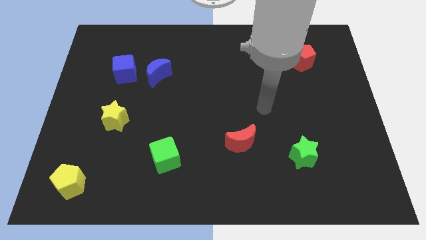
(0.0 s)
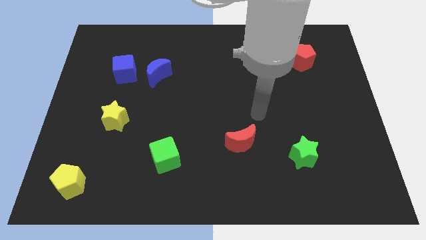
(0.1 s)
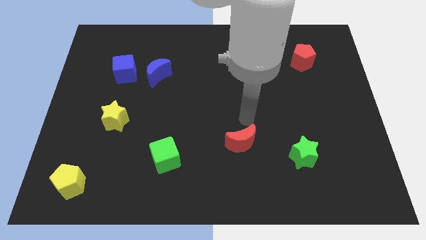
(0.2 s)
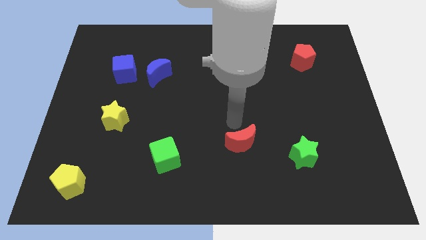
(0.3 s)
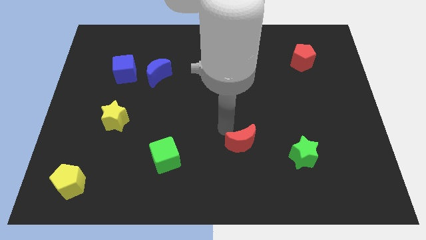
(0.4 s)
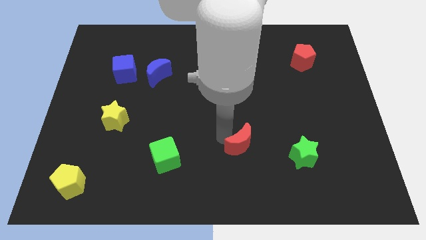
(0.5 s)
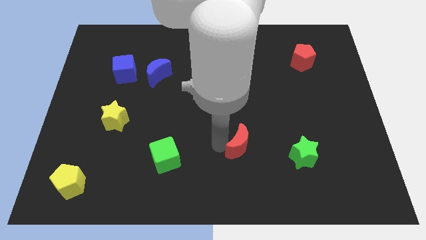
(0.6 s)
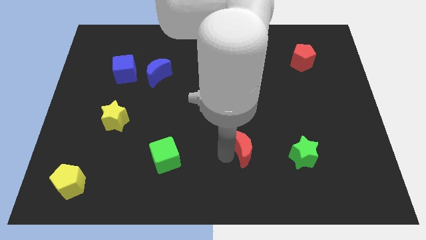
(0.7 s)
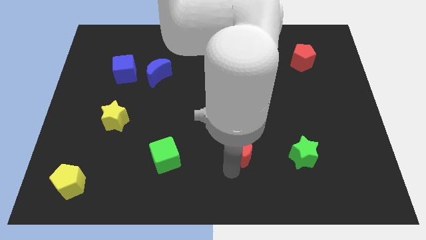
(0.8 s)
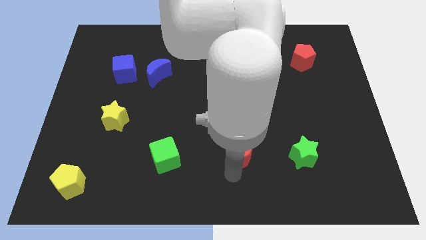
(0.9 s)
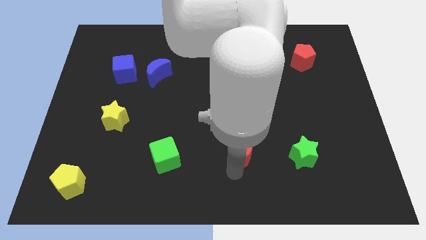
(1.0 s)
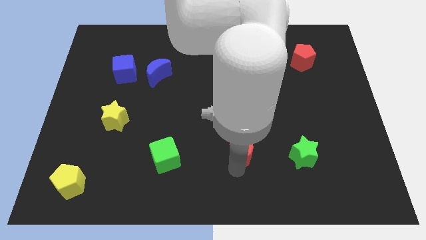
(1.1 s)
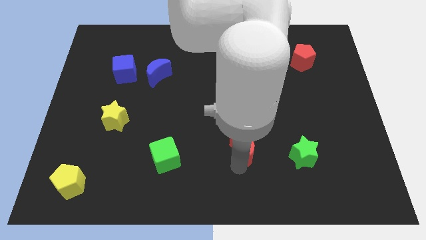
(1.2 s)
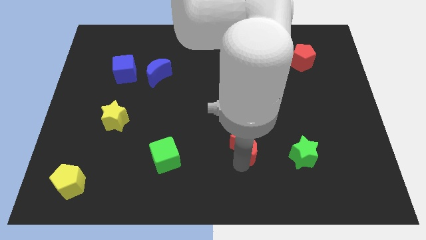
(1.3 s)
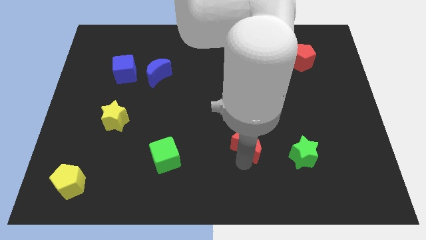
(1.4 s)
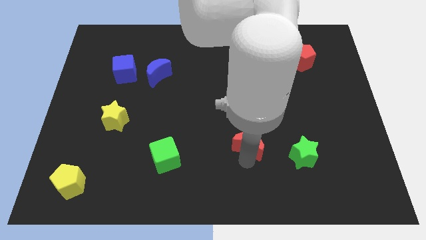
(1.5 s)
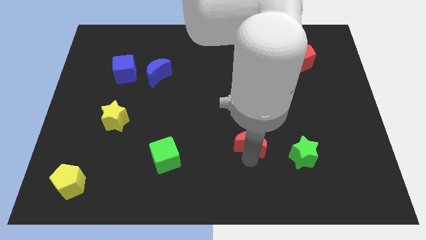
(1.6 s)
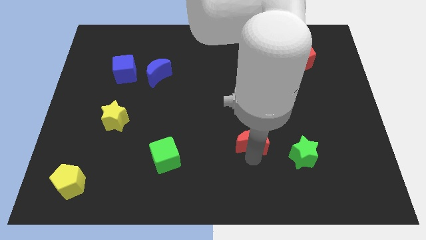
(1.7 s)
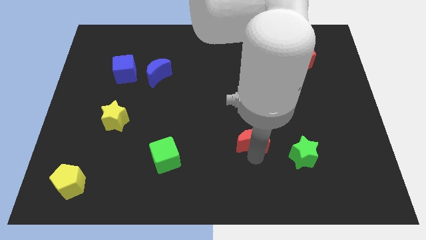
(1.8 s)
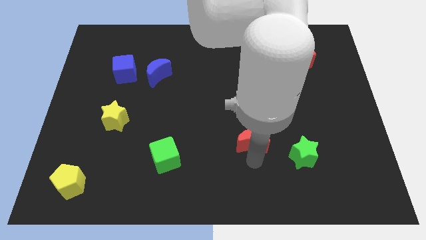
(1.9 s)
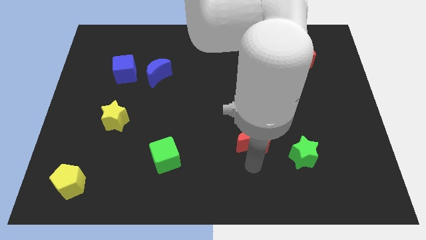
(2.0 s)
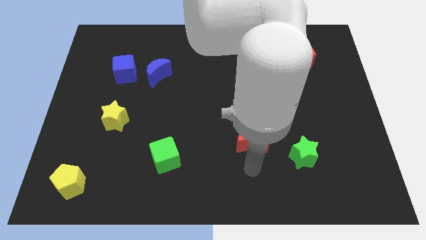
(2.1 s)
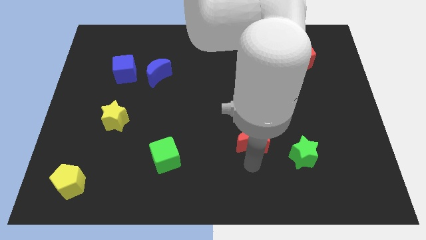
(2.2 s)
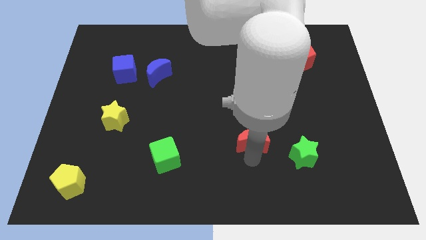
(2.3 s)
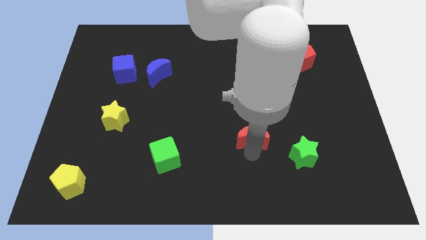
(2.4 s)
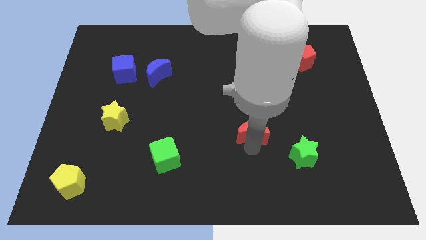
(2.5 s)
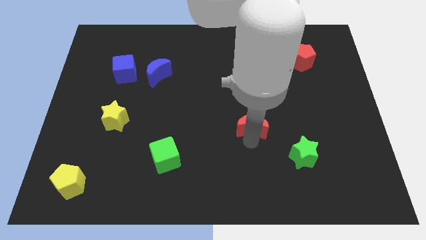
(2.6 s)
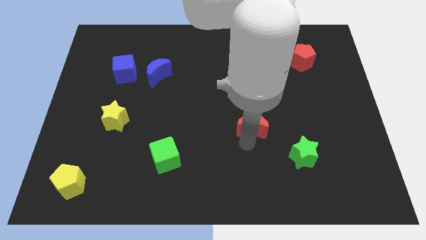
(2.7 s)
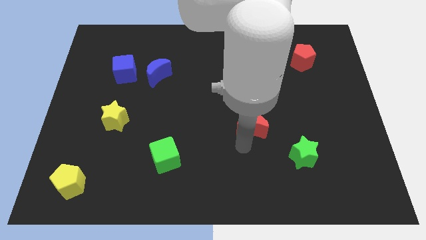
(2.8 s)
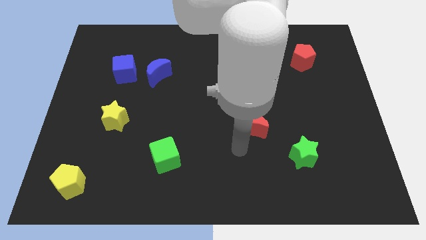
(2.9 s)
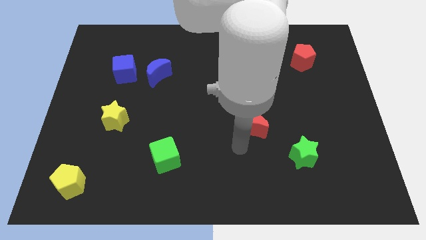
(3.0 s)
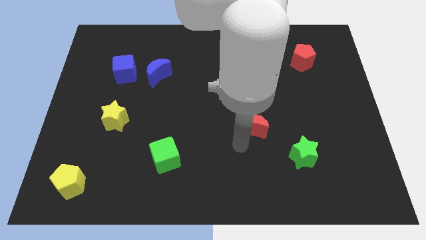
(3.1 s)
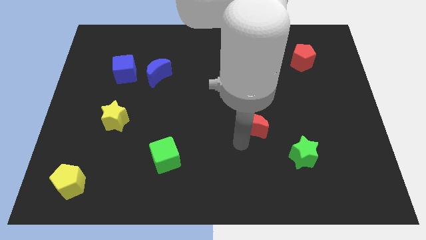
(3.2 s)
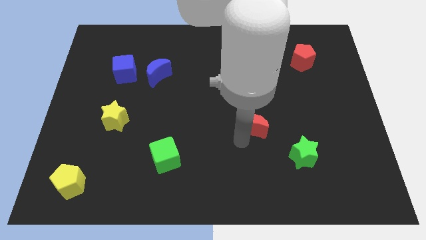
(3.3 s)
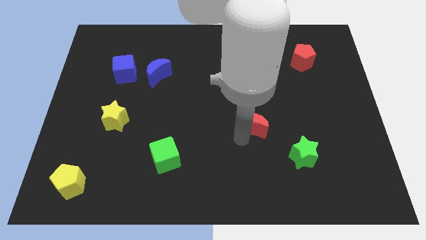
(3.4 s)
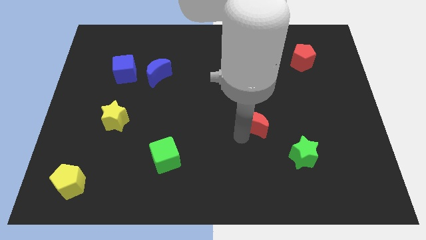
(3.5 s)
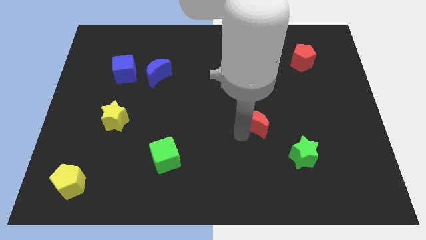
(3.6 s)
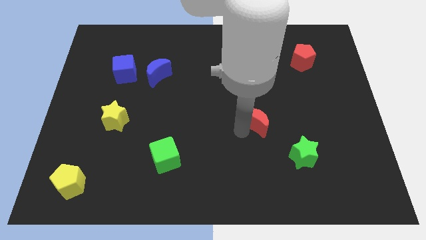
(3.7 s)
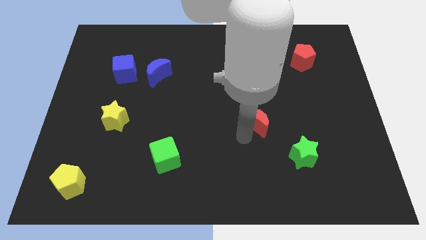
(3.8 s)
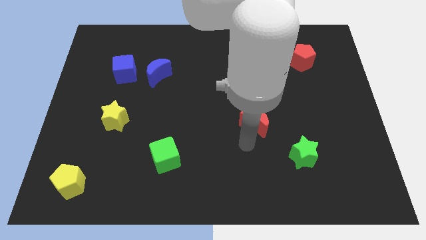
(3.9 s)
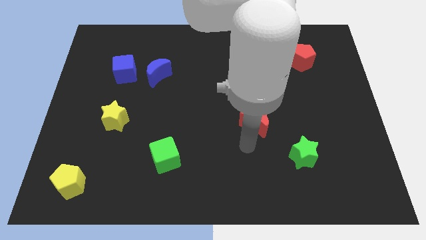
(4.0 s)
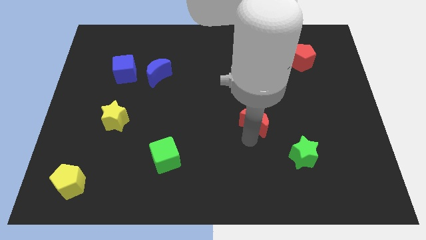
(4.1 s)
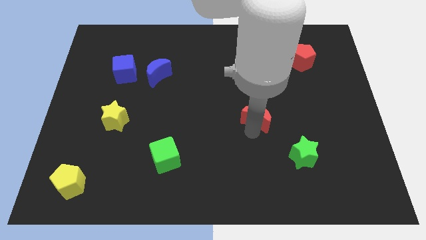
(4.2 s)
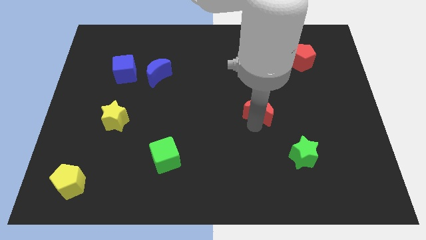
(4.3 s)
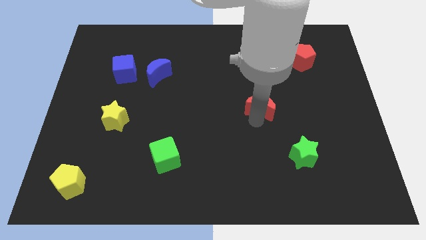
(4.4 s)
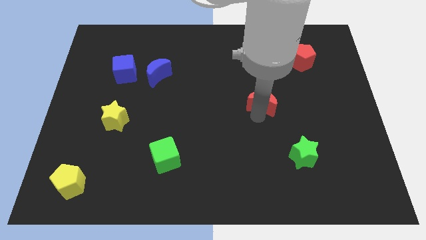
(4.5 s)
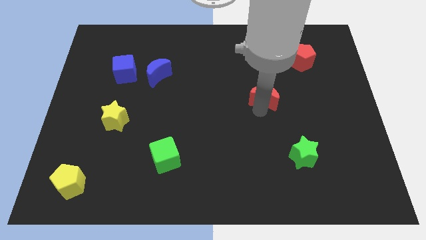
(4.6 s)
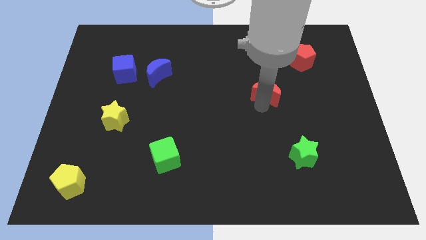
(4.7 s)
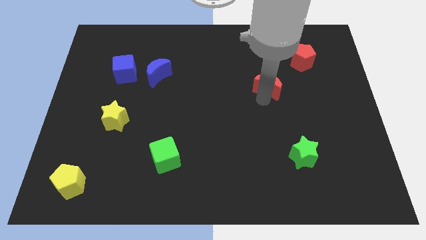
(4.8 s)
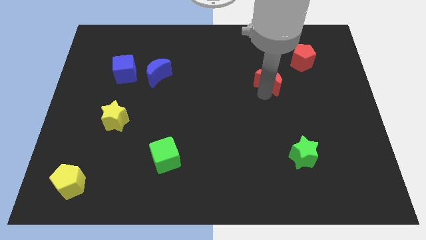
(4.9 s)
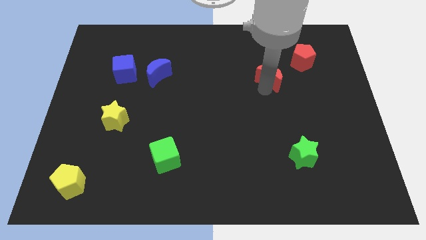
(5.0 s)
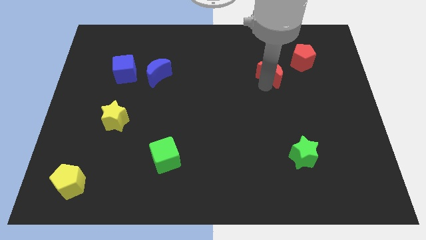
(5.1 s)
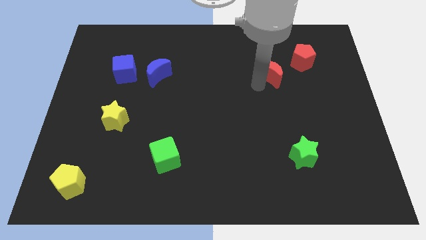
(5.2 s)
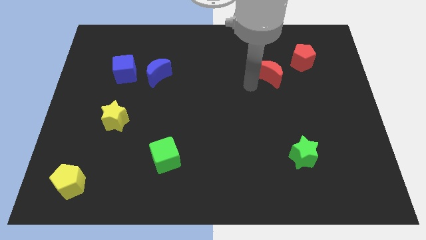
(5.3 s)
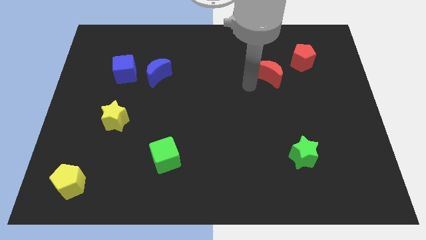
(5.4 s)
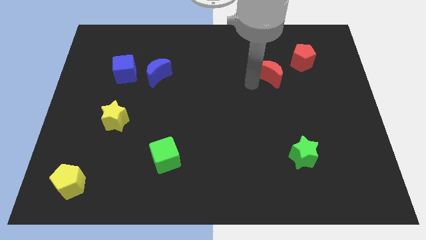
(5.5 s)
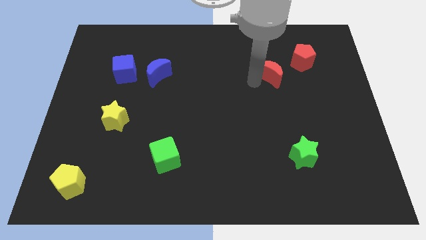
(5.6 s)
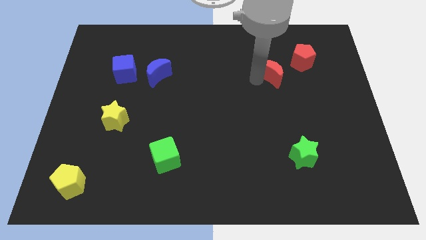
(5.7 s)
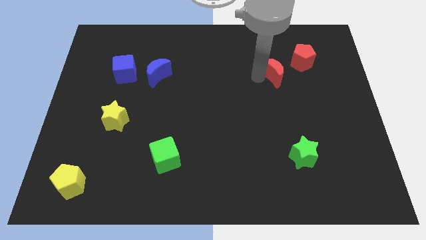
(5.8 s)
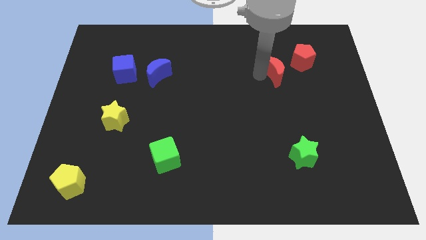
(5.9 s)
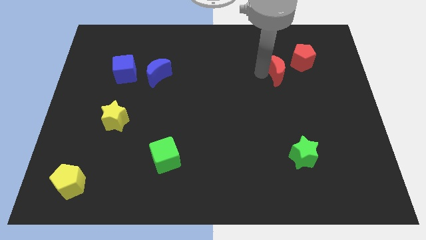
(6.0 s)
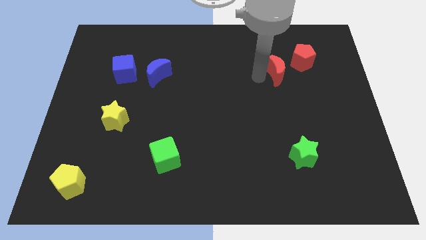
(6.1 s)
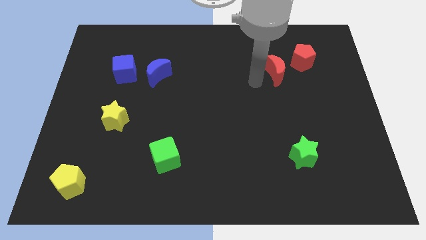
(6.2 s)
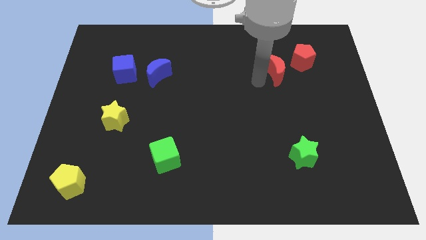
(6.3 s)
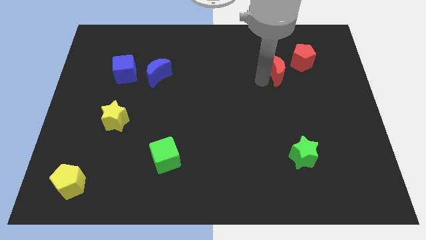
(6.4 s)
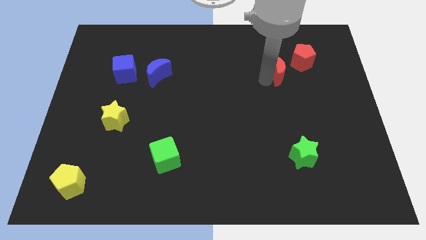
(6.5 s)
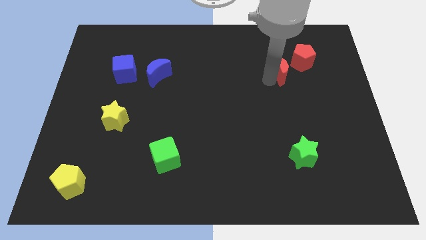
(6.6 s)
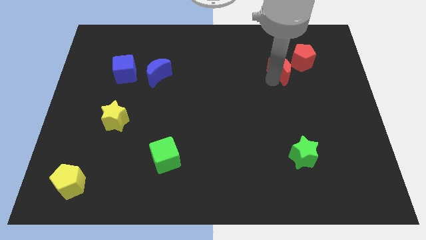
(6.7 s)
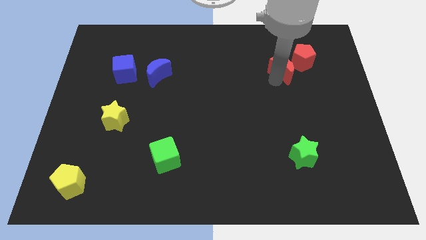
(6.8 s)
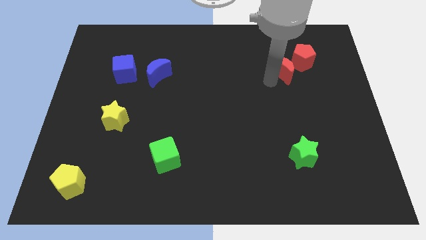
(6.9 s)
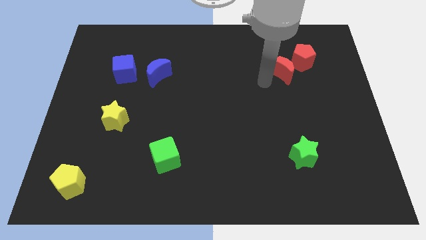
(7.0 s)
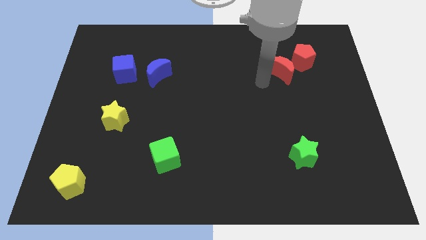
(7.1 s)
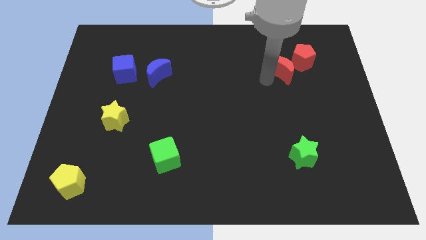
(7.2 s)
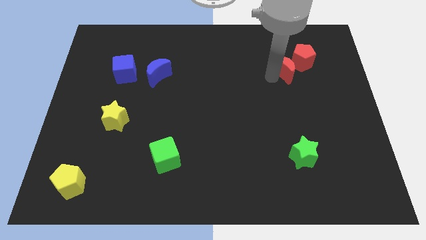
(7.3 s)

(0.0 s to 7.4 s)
put the red moon to the red pentagon

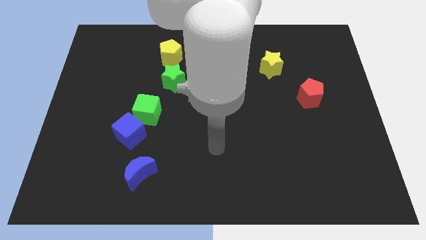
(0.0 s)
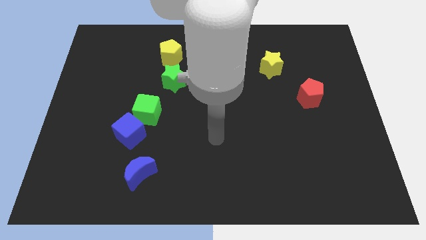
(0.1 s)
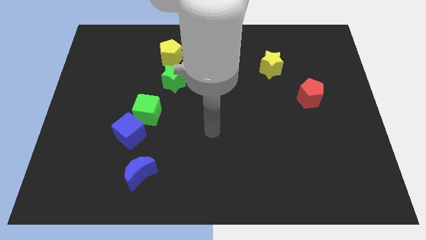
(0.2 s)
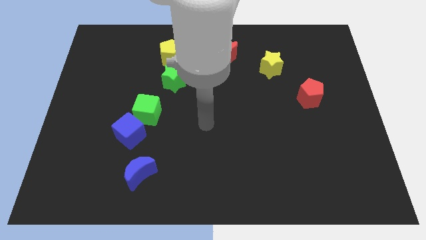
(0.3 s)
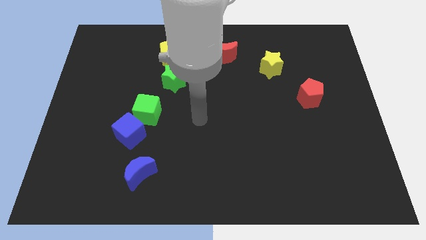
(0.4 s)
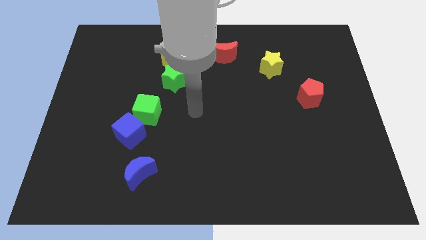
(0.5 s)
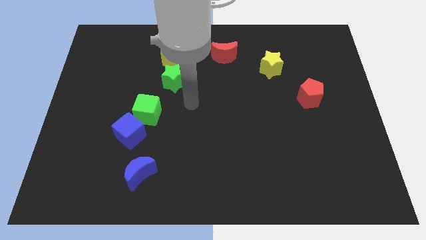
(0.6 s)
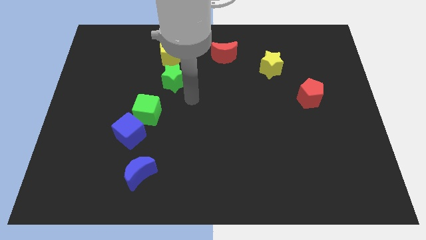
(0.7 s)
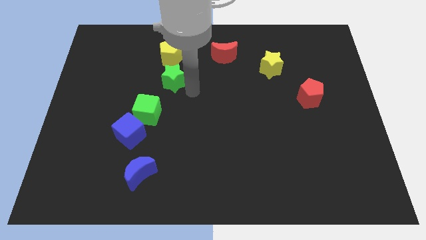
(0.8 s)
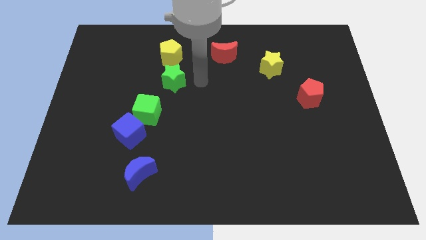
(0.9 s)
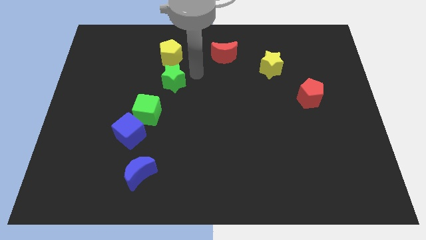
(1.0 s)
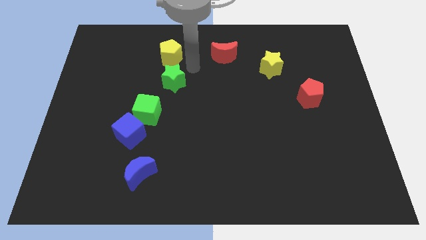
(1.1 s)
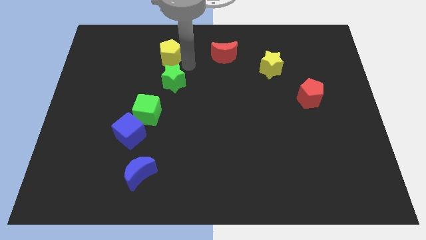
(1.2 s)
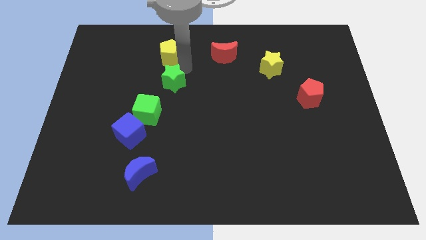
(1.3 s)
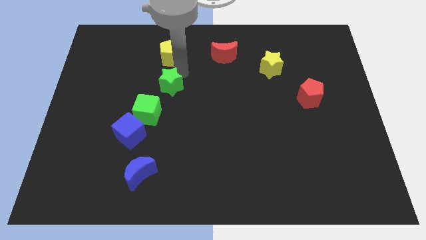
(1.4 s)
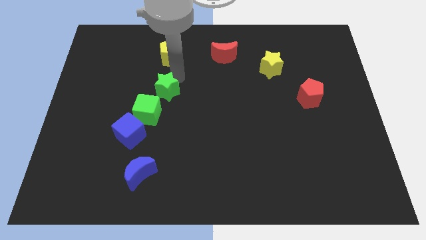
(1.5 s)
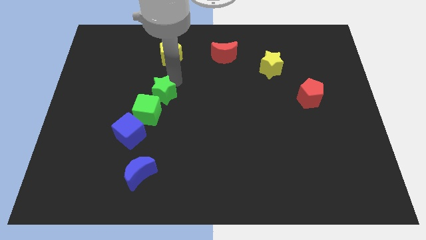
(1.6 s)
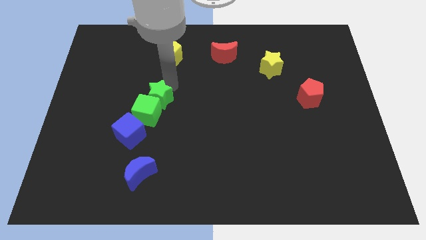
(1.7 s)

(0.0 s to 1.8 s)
push the green star towards the green cube
